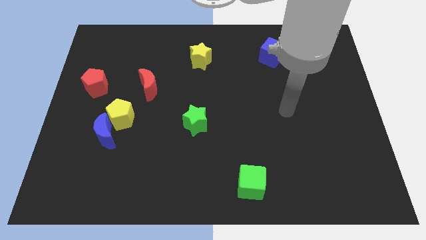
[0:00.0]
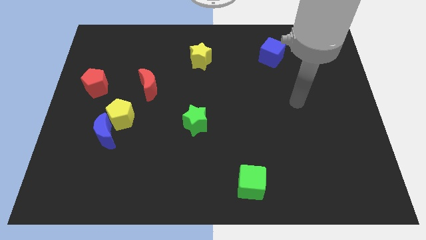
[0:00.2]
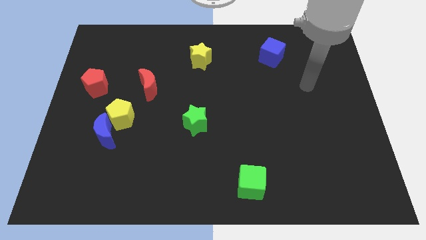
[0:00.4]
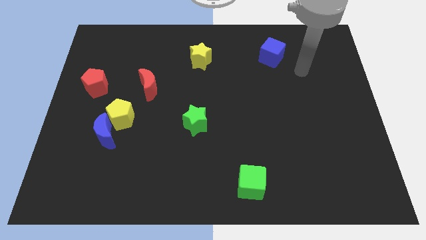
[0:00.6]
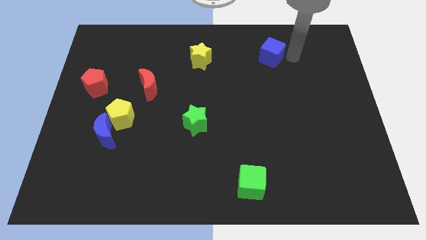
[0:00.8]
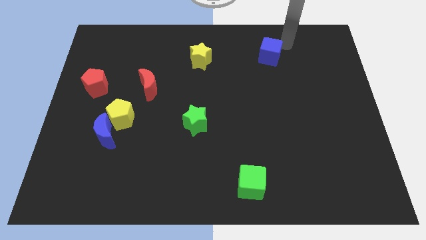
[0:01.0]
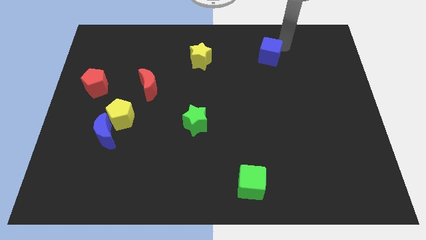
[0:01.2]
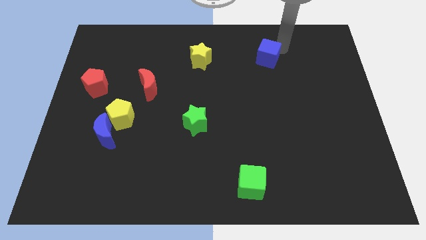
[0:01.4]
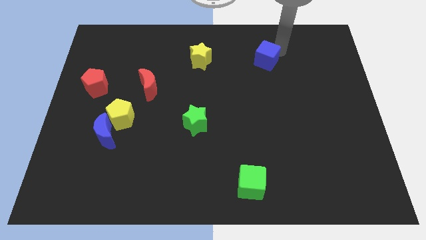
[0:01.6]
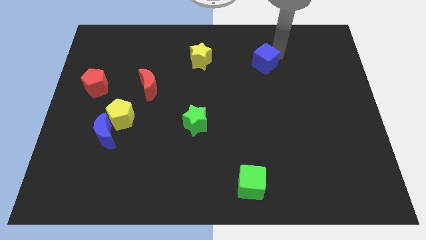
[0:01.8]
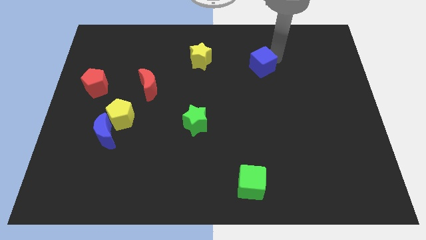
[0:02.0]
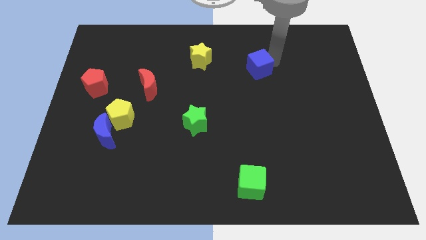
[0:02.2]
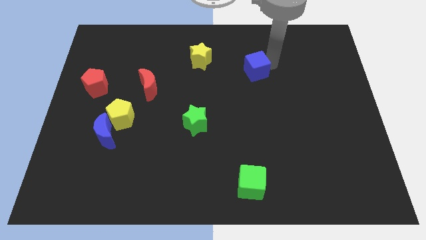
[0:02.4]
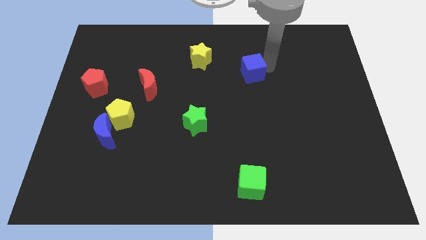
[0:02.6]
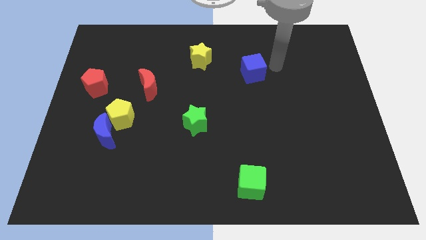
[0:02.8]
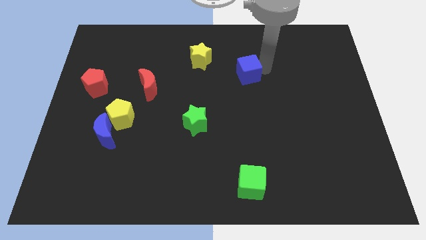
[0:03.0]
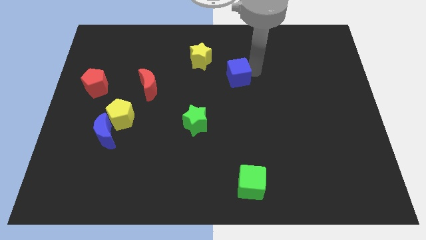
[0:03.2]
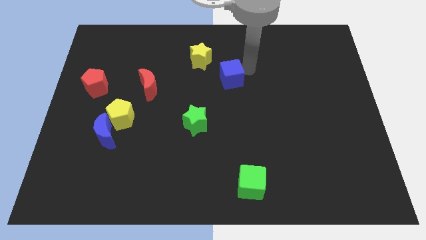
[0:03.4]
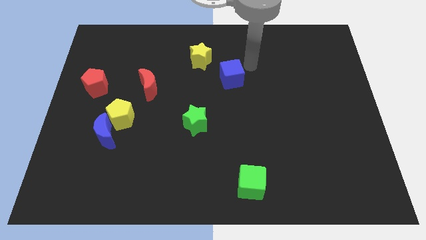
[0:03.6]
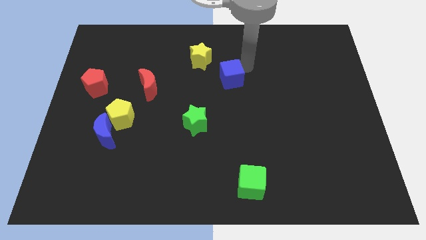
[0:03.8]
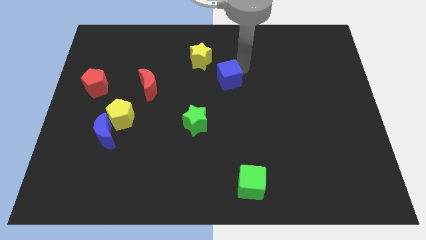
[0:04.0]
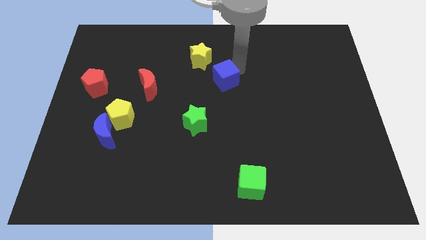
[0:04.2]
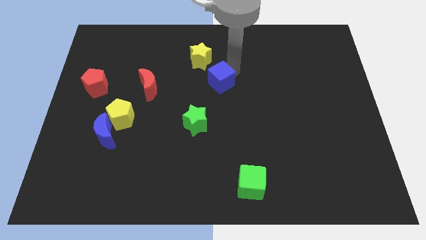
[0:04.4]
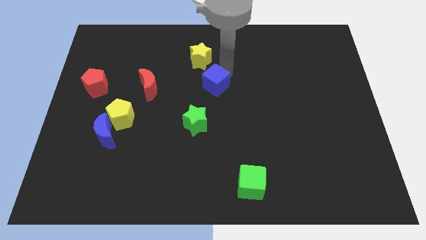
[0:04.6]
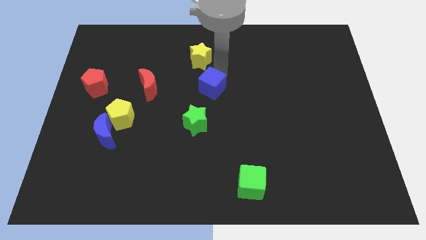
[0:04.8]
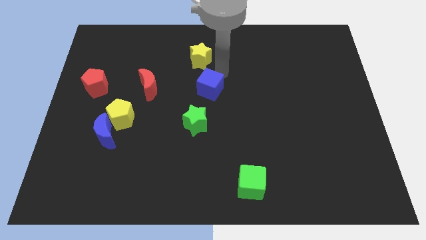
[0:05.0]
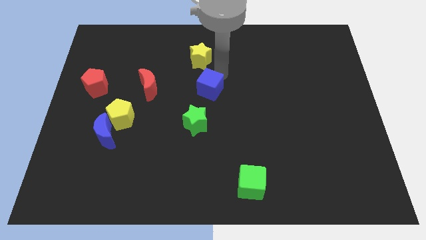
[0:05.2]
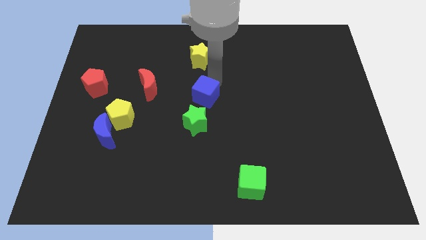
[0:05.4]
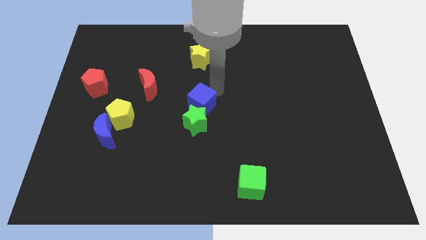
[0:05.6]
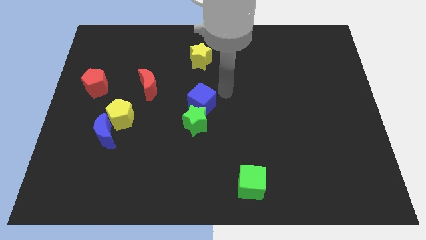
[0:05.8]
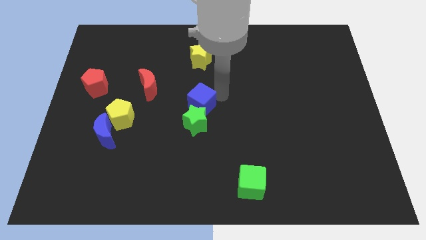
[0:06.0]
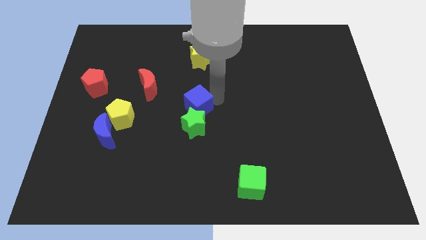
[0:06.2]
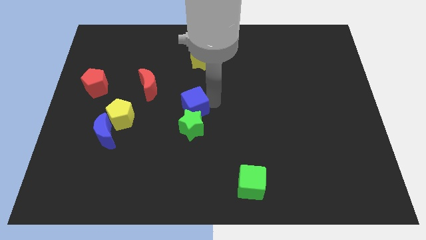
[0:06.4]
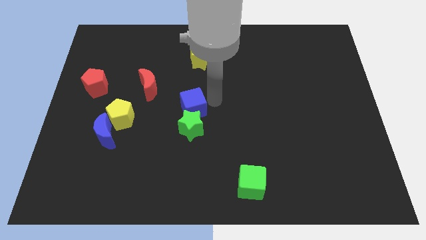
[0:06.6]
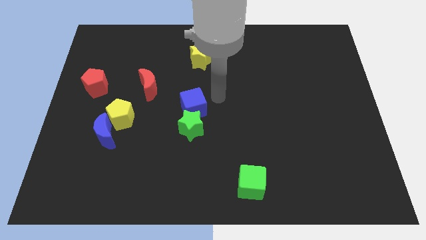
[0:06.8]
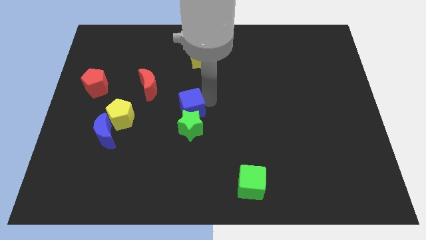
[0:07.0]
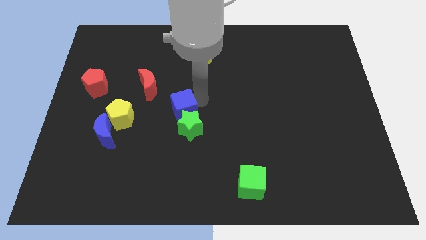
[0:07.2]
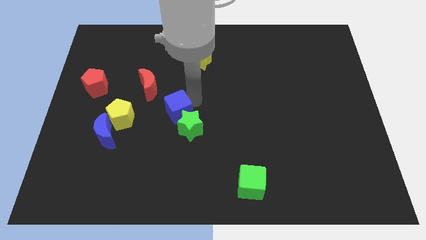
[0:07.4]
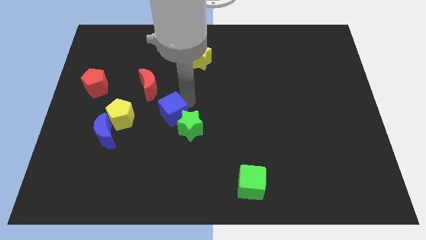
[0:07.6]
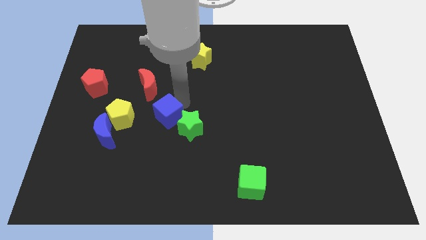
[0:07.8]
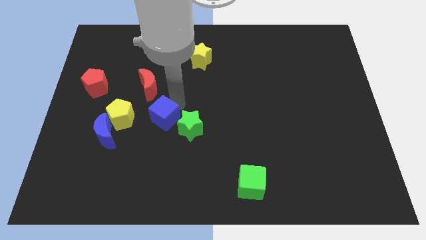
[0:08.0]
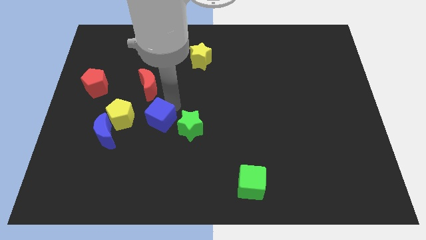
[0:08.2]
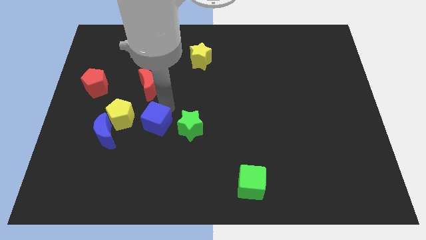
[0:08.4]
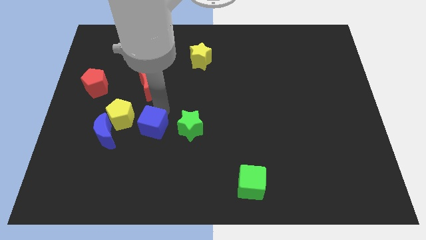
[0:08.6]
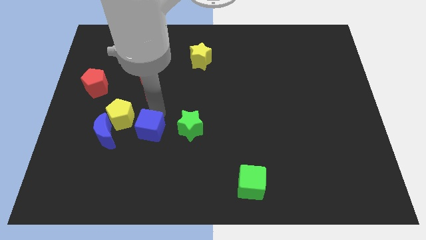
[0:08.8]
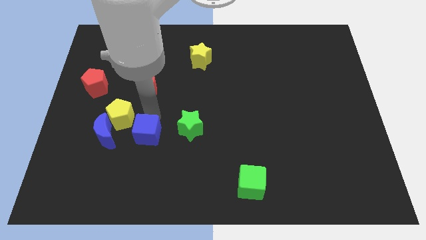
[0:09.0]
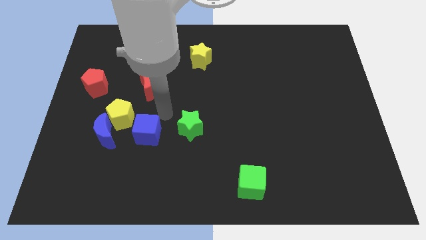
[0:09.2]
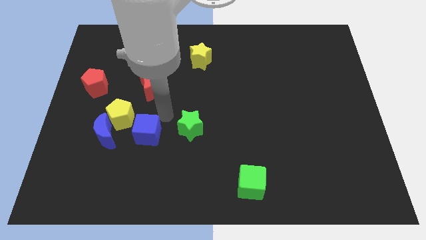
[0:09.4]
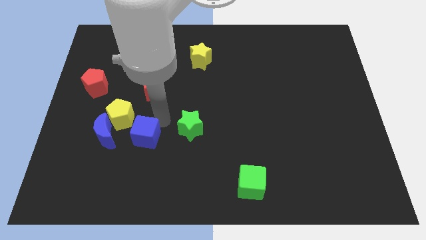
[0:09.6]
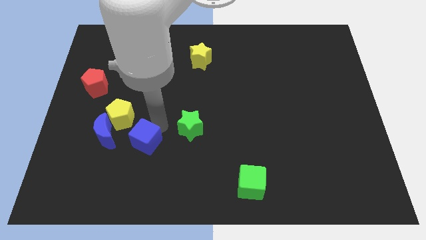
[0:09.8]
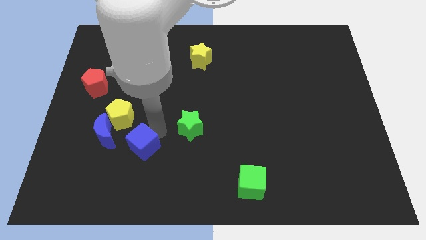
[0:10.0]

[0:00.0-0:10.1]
move the blue cube to the bottom right side of the blue moon

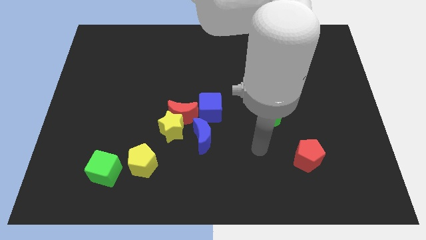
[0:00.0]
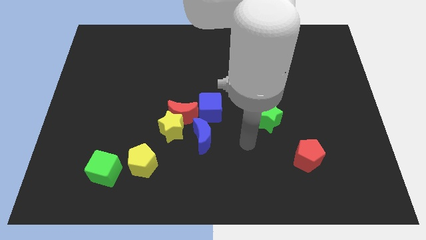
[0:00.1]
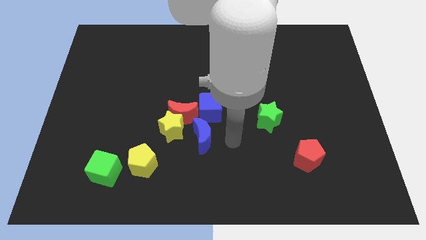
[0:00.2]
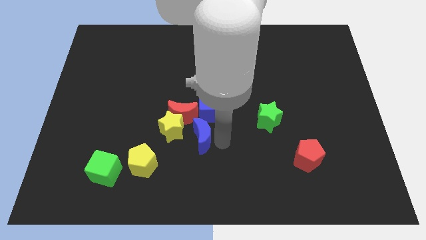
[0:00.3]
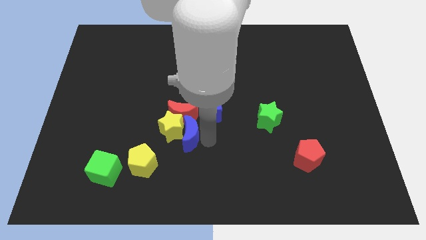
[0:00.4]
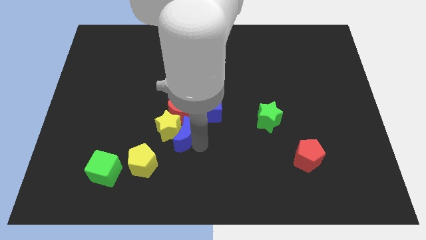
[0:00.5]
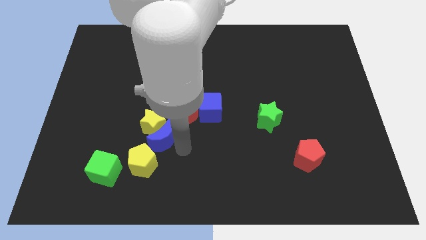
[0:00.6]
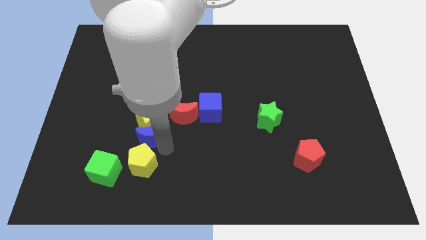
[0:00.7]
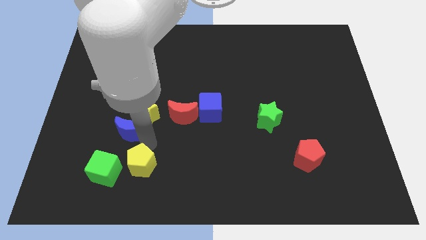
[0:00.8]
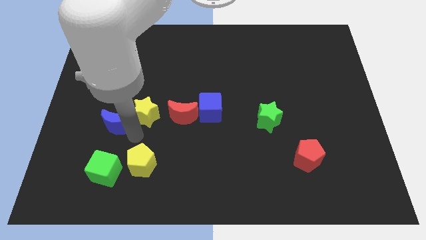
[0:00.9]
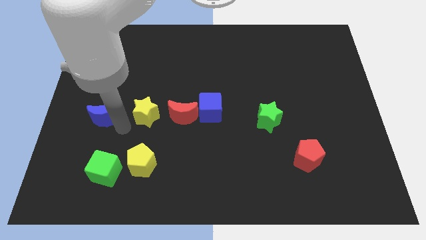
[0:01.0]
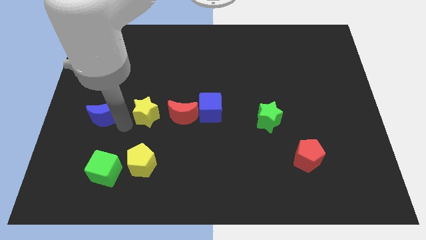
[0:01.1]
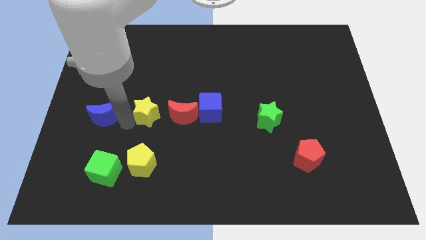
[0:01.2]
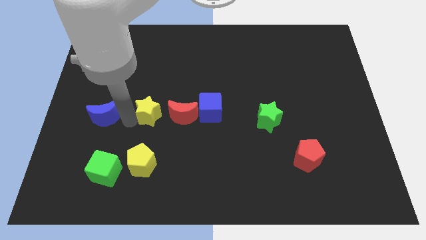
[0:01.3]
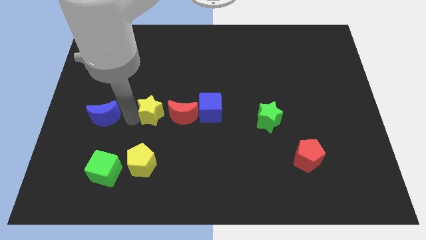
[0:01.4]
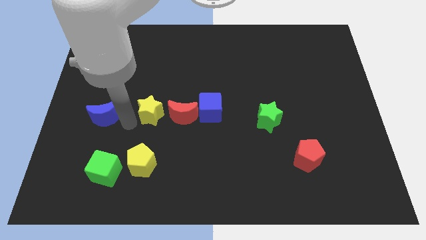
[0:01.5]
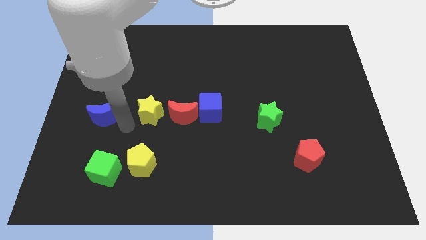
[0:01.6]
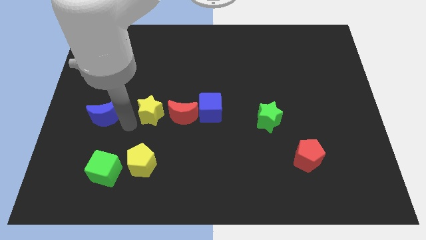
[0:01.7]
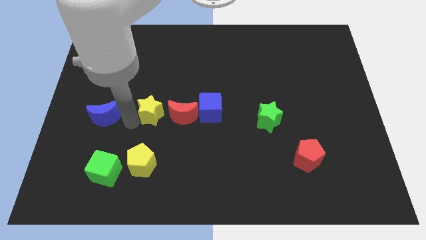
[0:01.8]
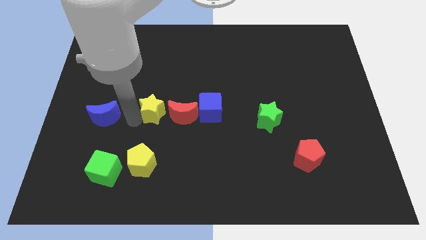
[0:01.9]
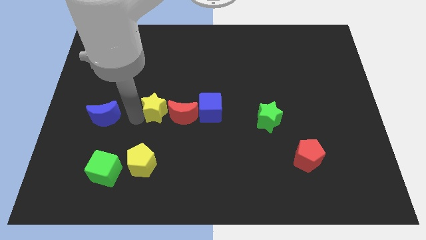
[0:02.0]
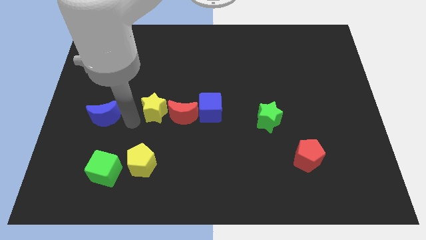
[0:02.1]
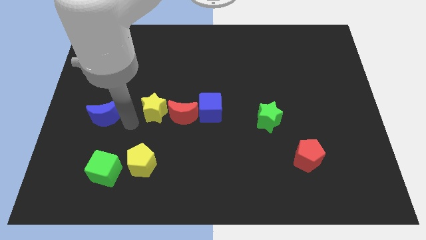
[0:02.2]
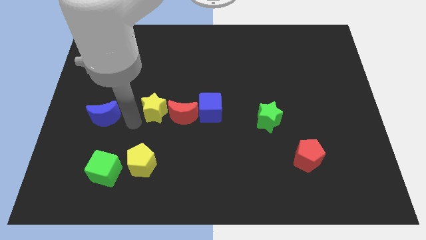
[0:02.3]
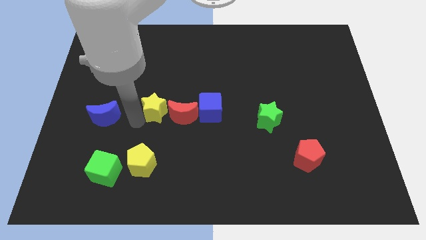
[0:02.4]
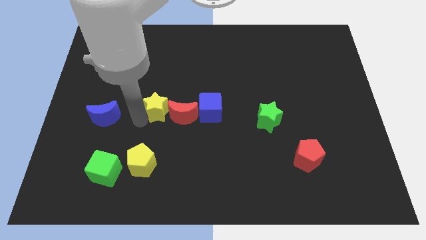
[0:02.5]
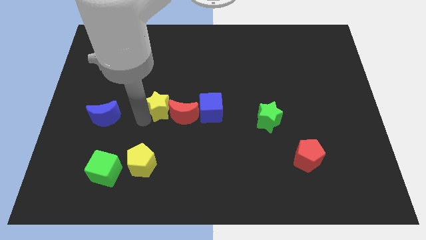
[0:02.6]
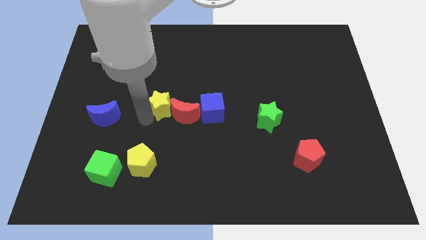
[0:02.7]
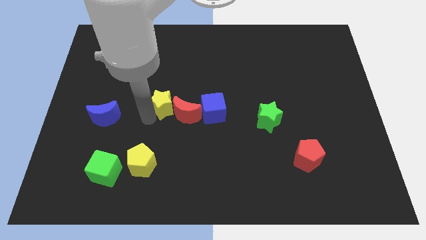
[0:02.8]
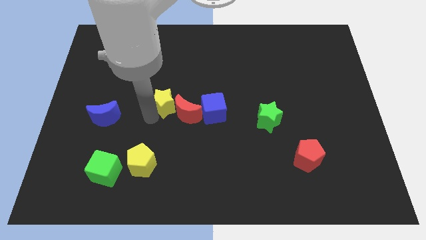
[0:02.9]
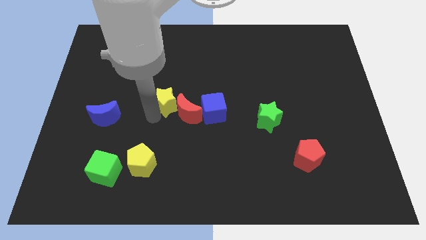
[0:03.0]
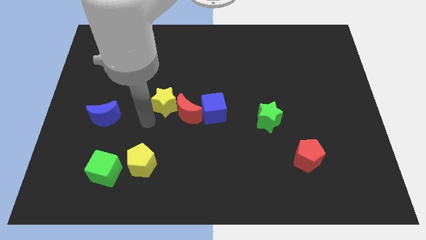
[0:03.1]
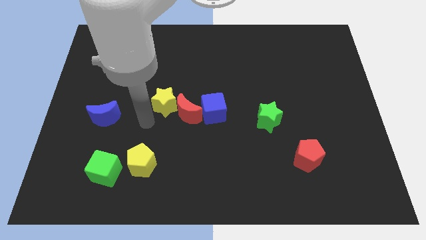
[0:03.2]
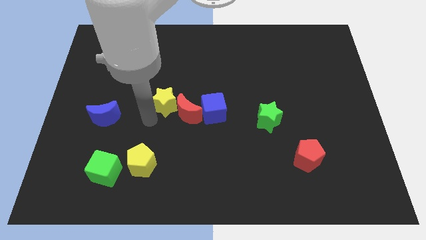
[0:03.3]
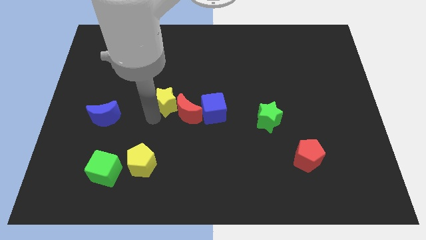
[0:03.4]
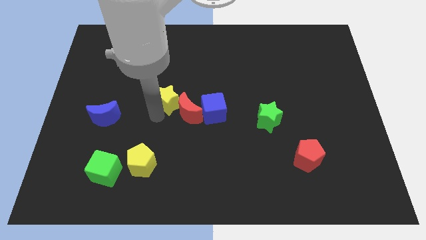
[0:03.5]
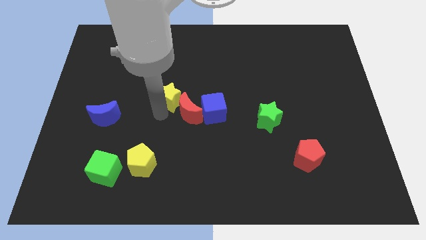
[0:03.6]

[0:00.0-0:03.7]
push the yellow star to the top side of the red moon
